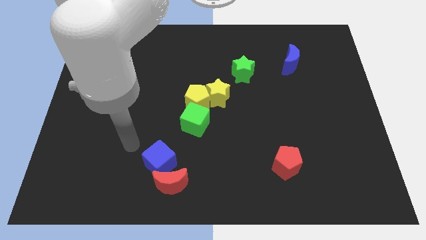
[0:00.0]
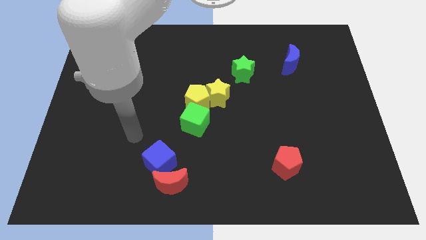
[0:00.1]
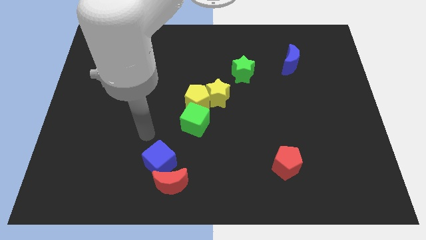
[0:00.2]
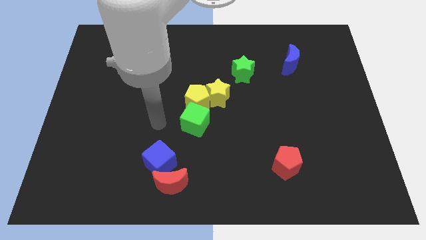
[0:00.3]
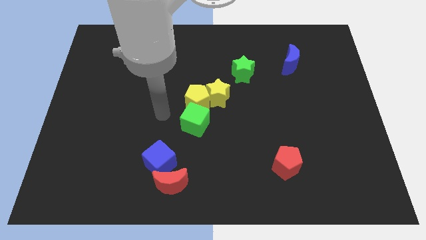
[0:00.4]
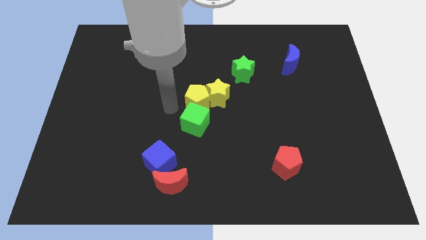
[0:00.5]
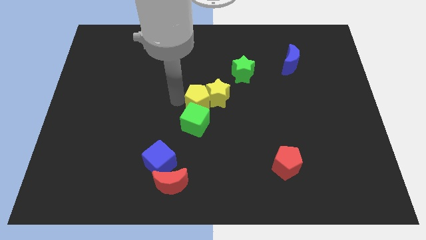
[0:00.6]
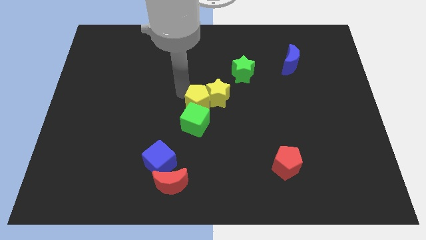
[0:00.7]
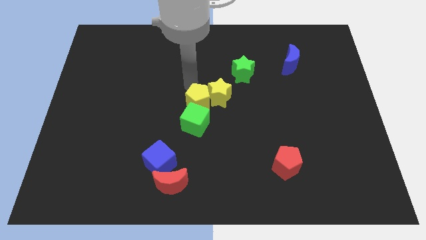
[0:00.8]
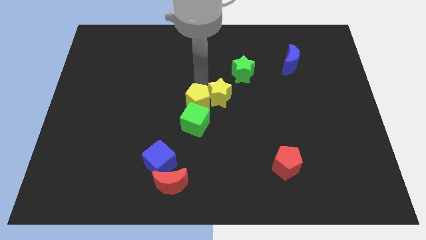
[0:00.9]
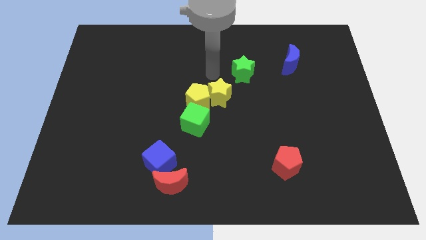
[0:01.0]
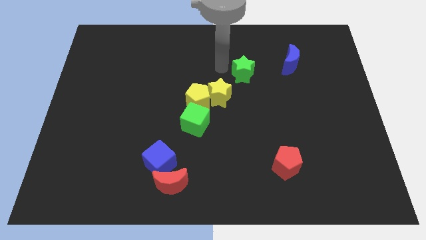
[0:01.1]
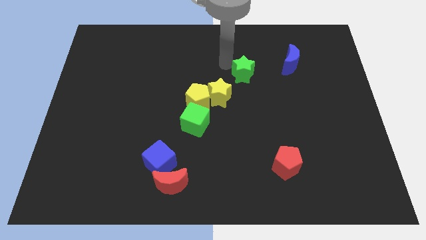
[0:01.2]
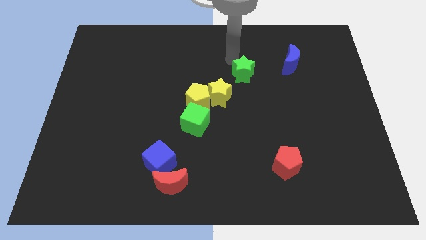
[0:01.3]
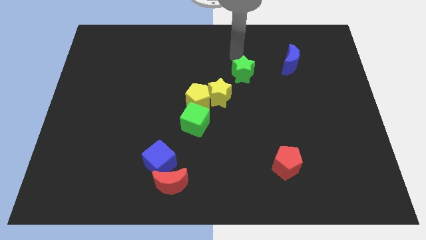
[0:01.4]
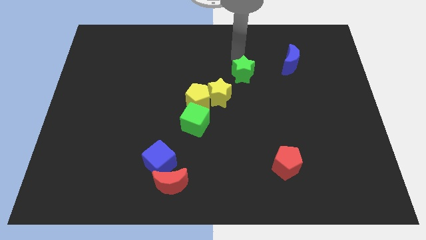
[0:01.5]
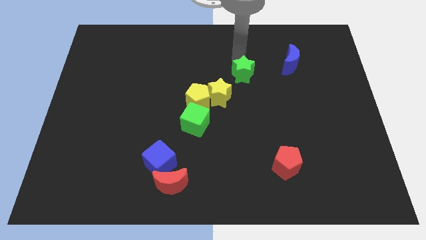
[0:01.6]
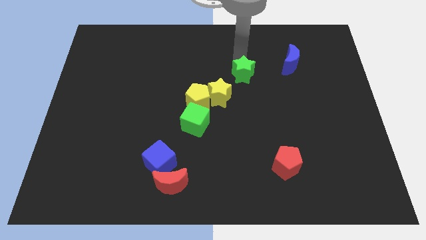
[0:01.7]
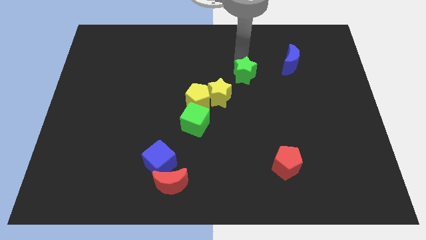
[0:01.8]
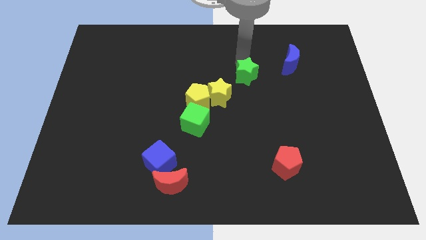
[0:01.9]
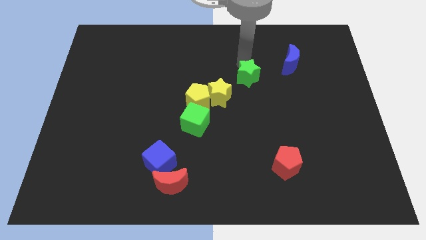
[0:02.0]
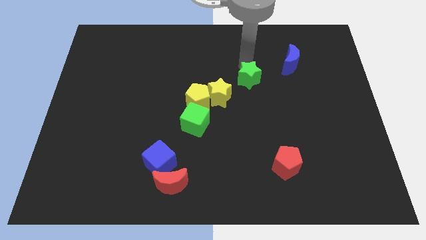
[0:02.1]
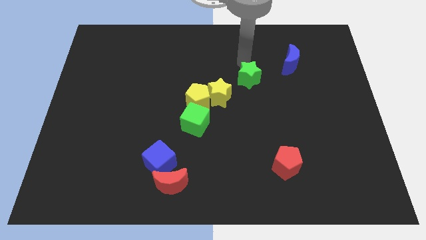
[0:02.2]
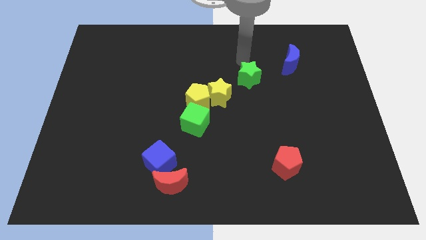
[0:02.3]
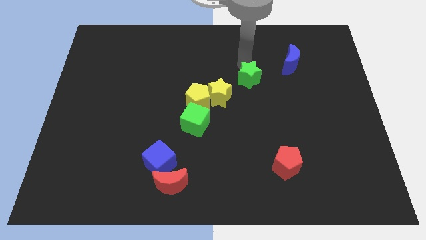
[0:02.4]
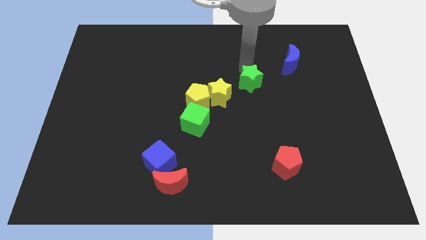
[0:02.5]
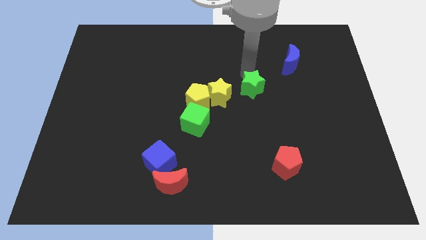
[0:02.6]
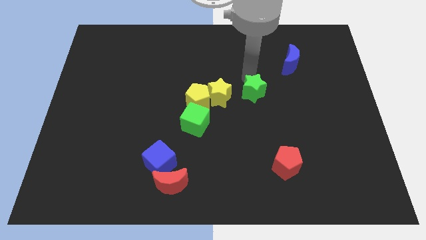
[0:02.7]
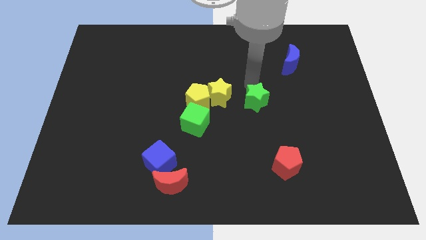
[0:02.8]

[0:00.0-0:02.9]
move the green star downwards a bit

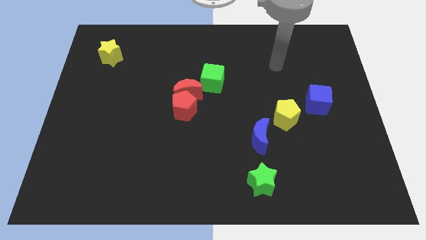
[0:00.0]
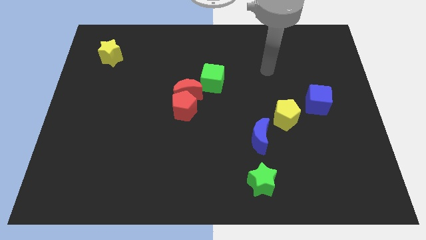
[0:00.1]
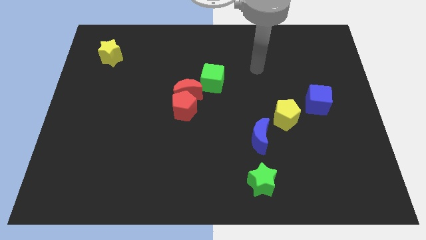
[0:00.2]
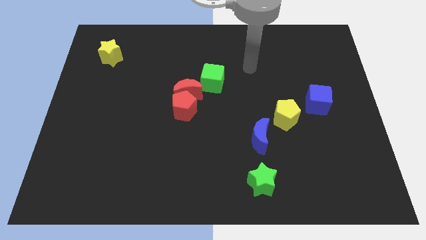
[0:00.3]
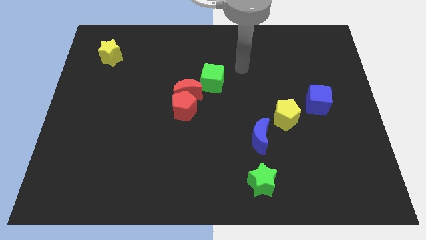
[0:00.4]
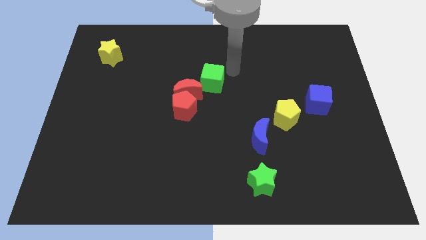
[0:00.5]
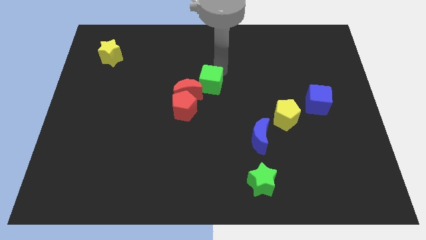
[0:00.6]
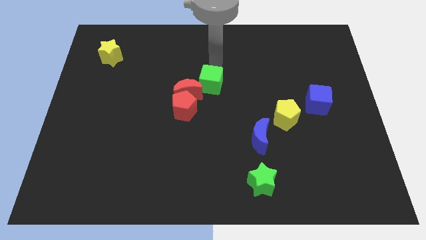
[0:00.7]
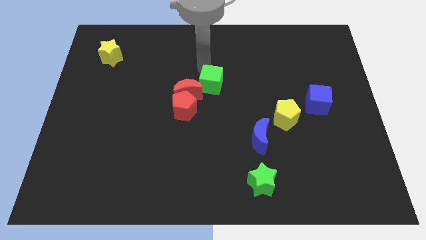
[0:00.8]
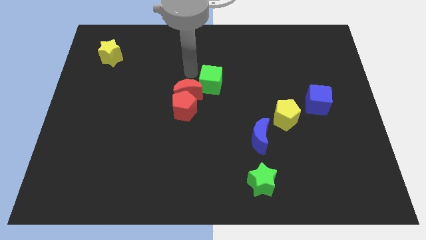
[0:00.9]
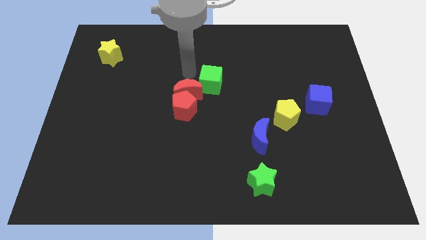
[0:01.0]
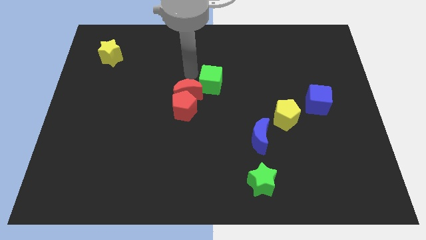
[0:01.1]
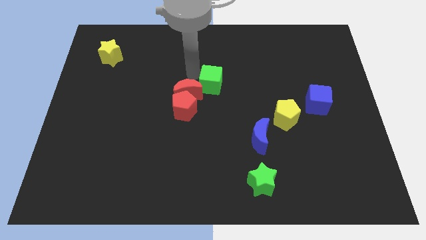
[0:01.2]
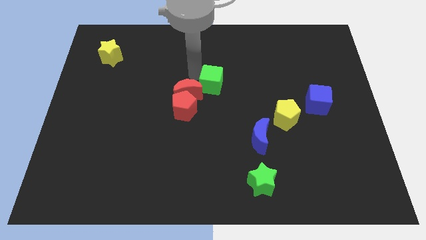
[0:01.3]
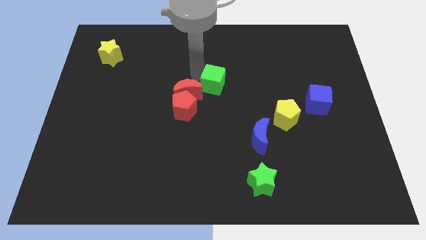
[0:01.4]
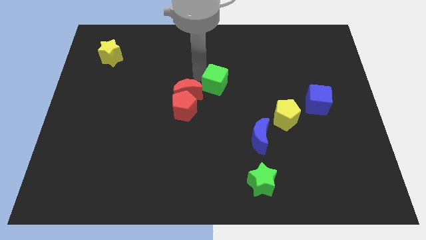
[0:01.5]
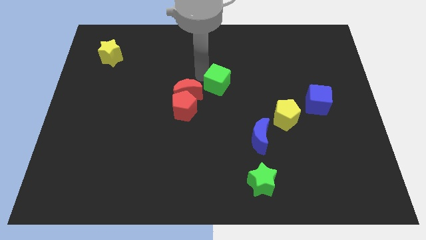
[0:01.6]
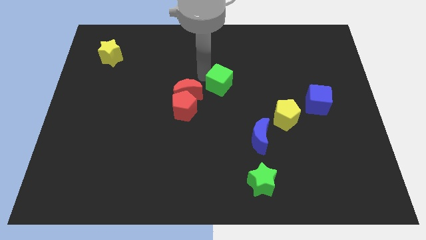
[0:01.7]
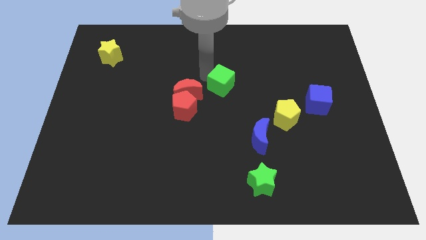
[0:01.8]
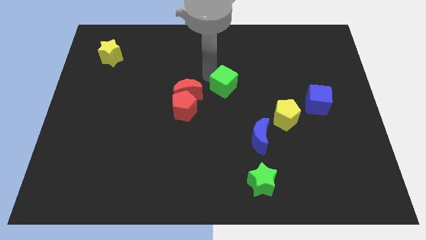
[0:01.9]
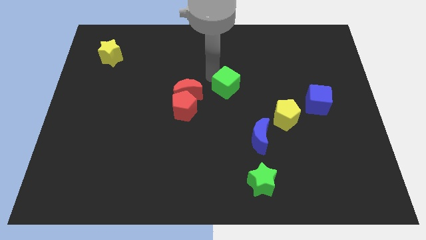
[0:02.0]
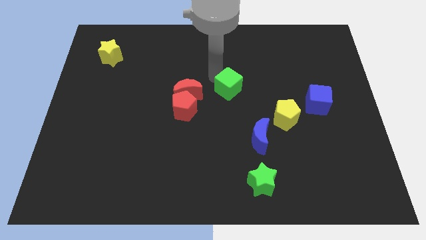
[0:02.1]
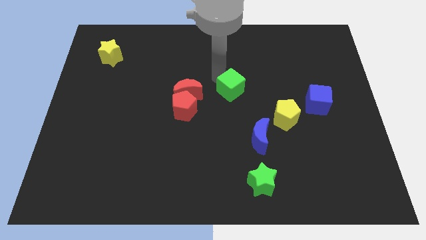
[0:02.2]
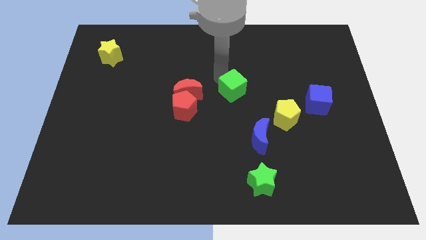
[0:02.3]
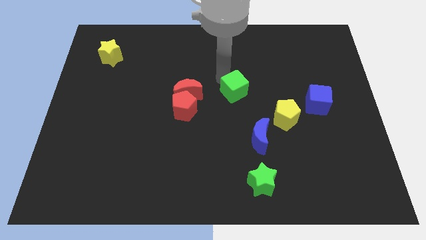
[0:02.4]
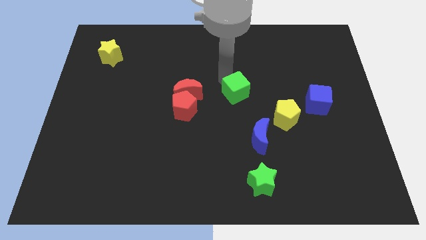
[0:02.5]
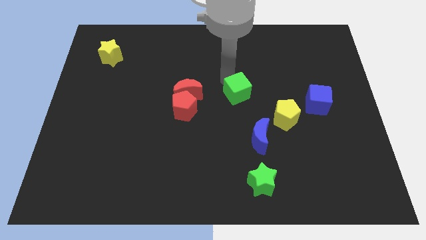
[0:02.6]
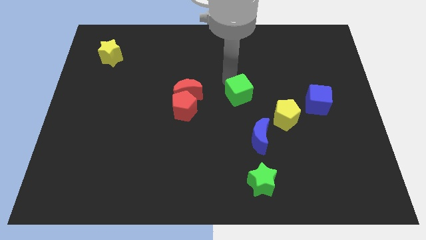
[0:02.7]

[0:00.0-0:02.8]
slightly push the green cube diagonally downwards and to the right

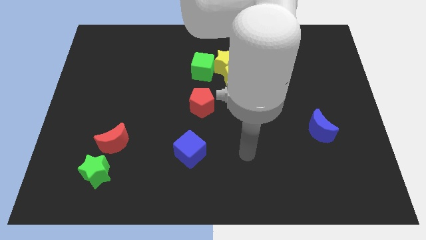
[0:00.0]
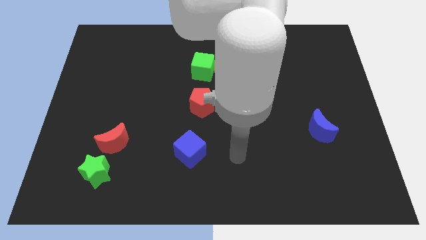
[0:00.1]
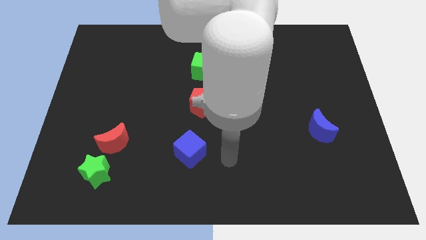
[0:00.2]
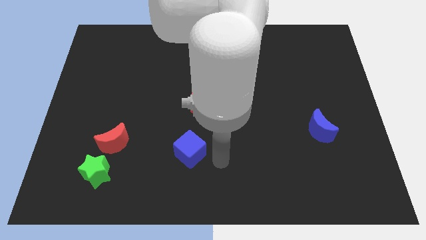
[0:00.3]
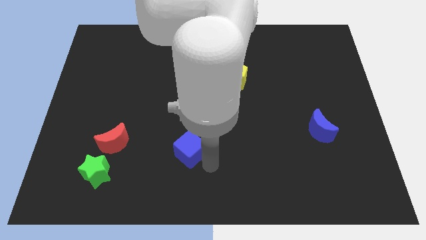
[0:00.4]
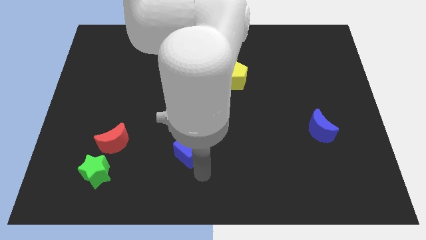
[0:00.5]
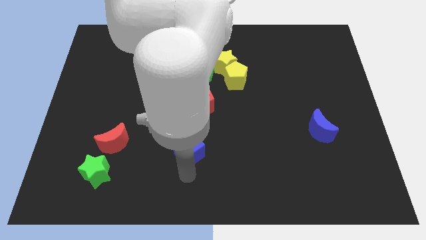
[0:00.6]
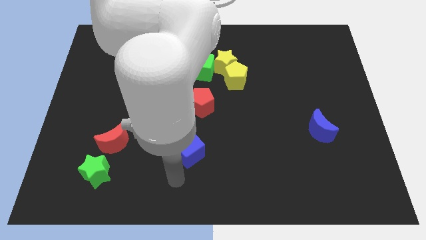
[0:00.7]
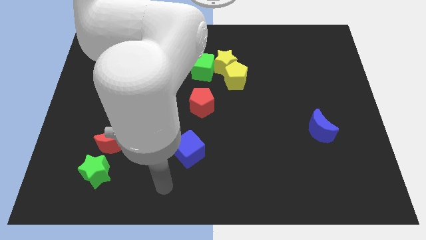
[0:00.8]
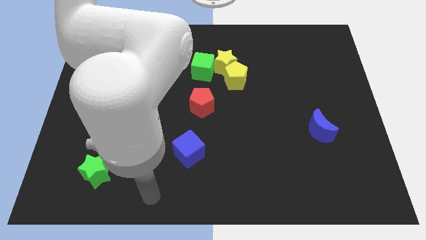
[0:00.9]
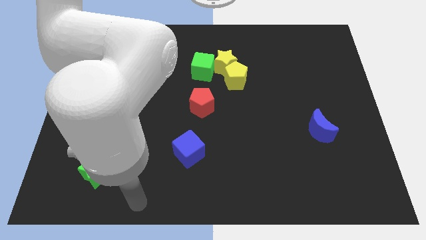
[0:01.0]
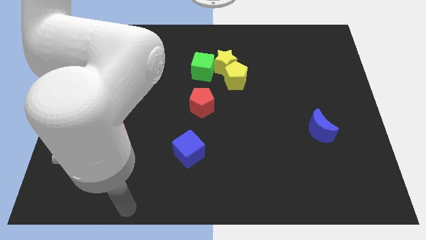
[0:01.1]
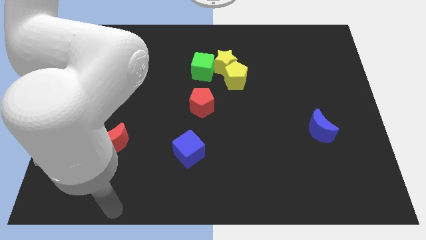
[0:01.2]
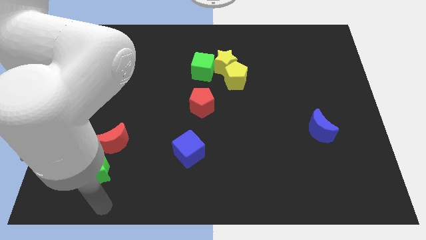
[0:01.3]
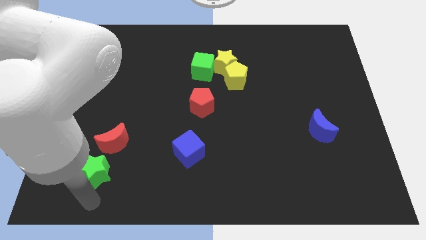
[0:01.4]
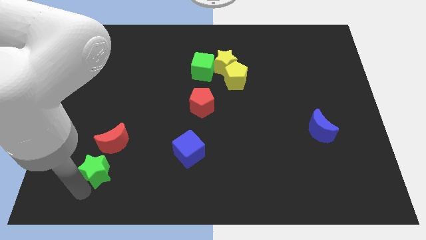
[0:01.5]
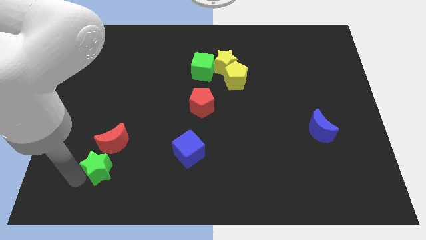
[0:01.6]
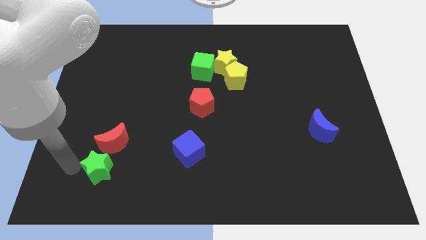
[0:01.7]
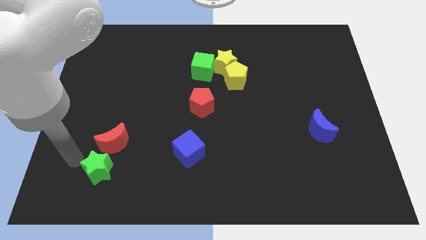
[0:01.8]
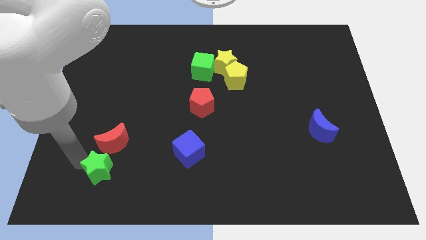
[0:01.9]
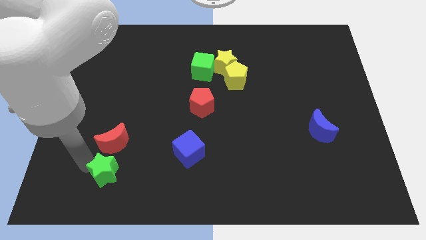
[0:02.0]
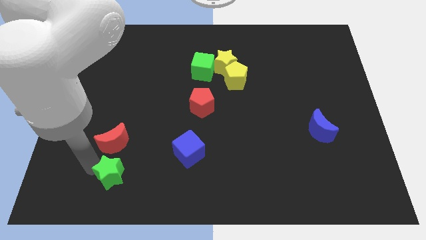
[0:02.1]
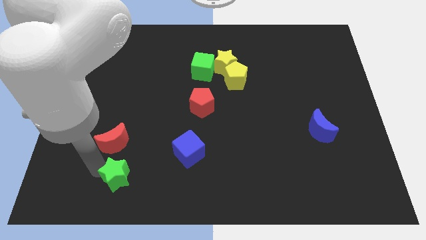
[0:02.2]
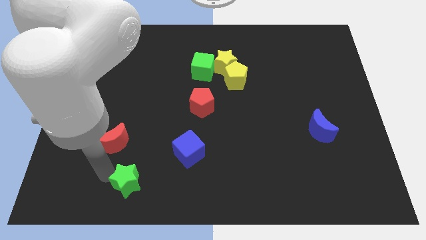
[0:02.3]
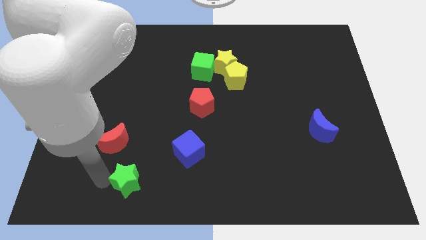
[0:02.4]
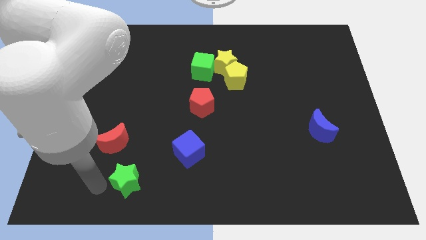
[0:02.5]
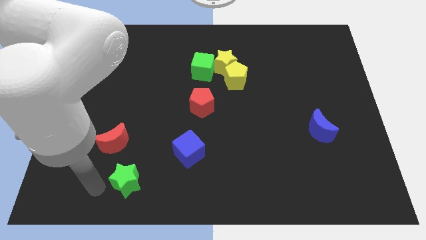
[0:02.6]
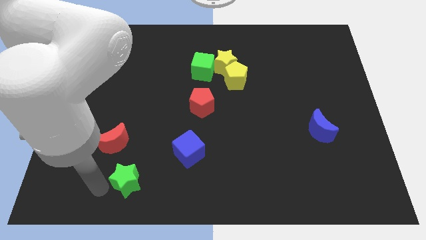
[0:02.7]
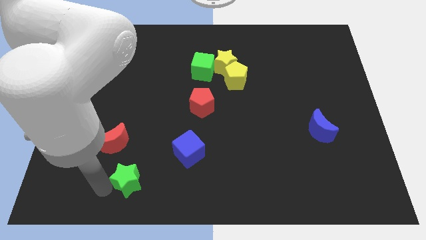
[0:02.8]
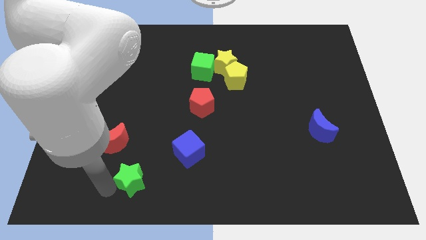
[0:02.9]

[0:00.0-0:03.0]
push the green star a little bit right
